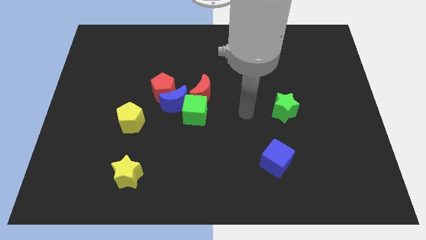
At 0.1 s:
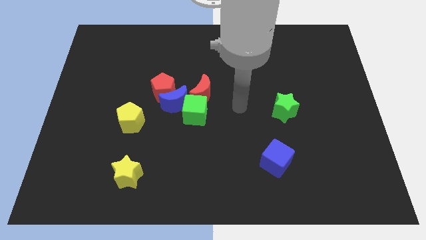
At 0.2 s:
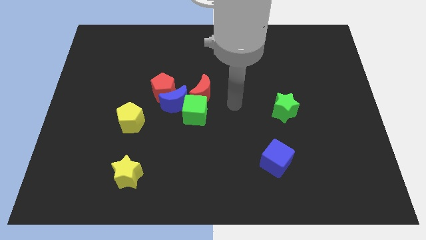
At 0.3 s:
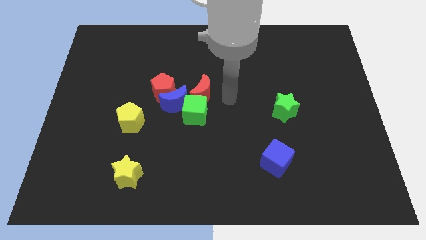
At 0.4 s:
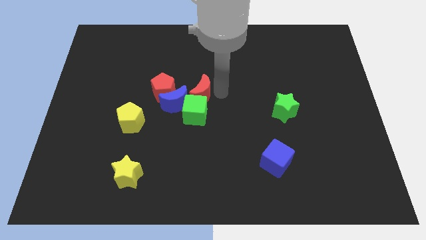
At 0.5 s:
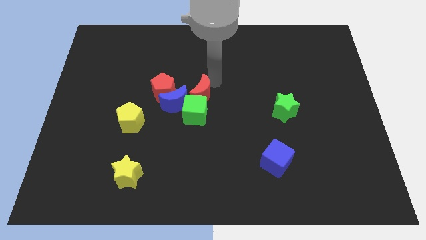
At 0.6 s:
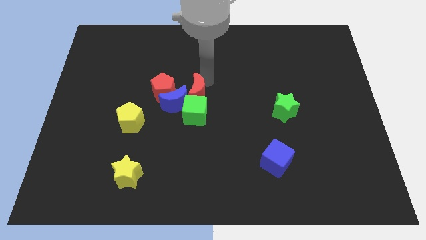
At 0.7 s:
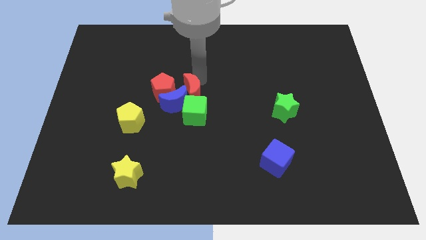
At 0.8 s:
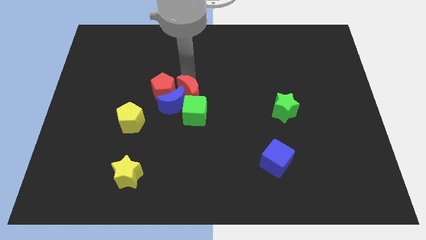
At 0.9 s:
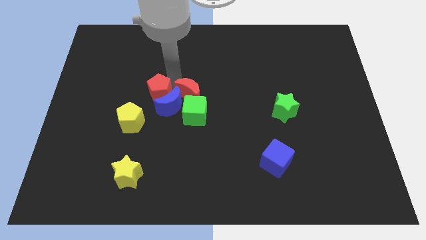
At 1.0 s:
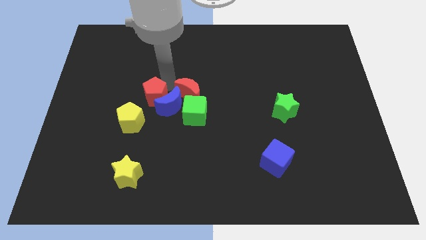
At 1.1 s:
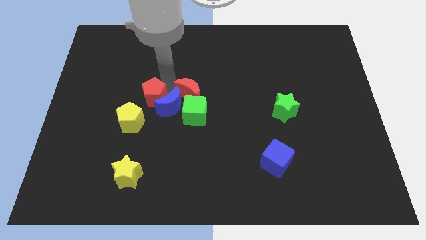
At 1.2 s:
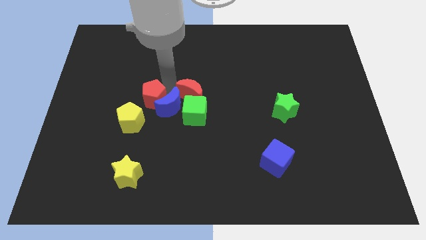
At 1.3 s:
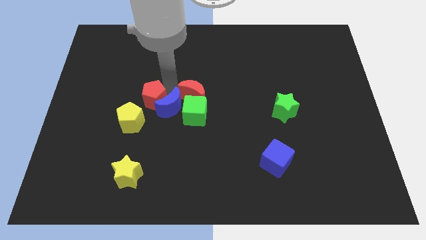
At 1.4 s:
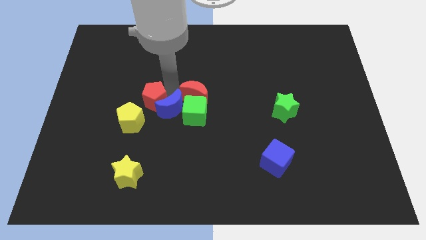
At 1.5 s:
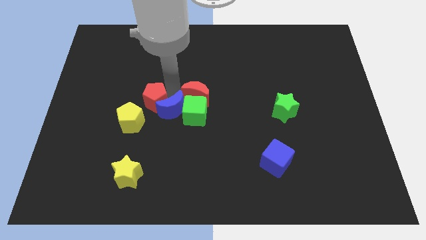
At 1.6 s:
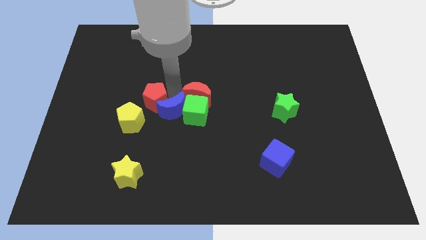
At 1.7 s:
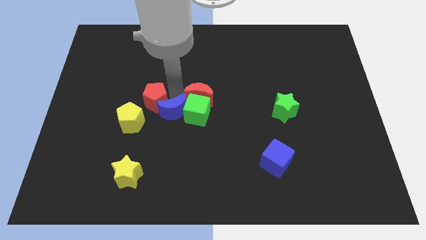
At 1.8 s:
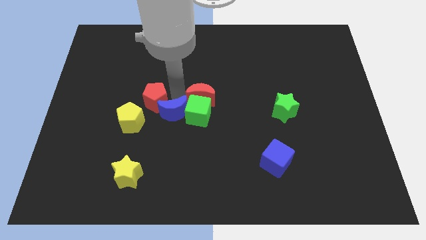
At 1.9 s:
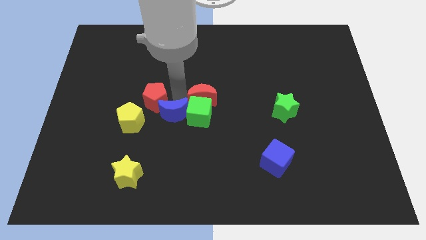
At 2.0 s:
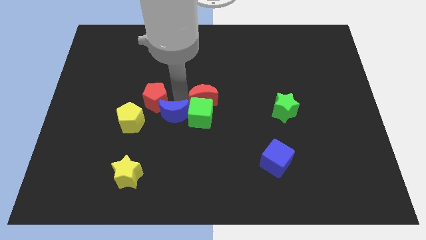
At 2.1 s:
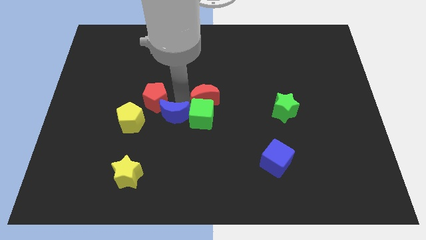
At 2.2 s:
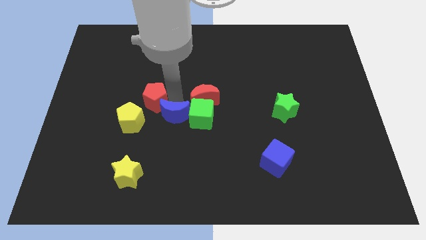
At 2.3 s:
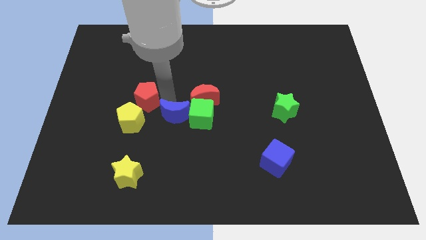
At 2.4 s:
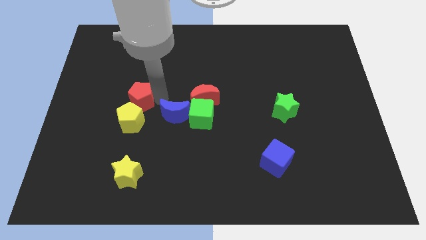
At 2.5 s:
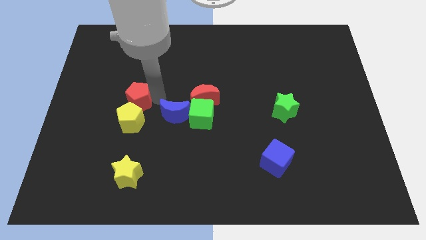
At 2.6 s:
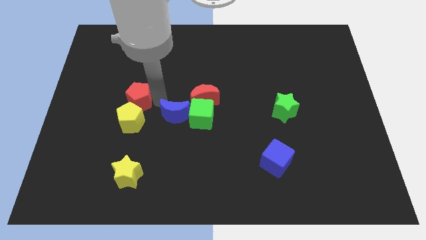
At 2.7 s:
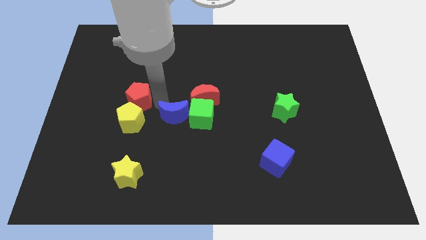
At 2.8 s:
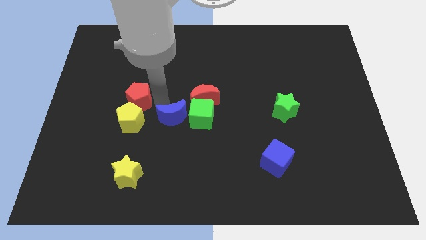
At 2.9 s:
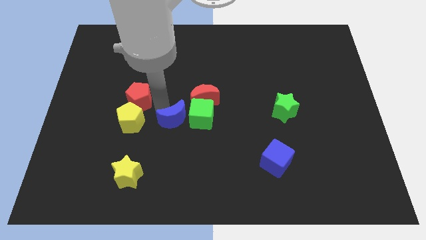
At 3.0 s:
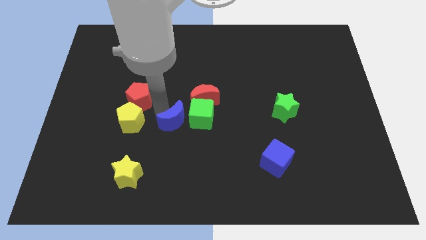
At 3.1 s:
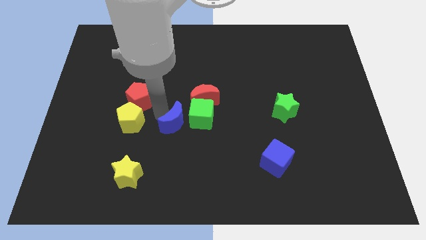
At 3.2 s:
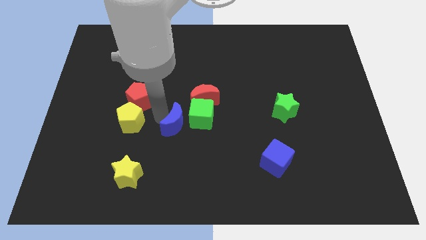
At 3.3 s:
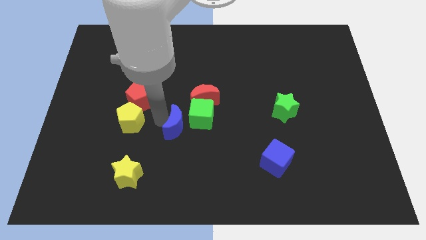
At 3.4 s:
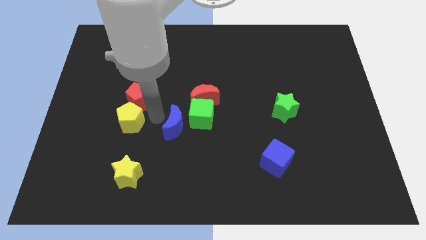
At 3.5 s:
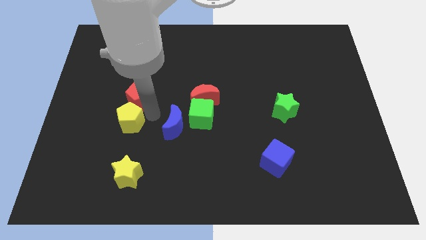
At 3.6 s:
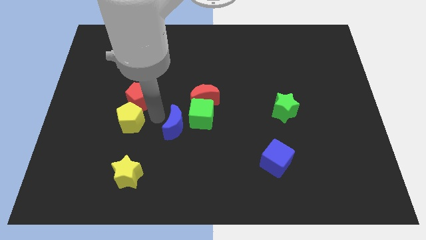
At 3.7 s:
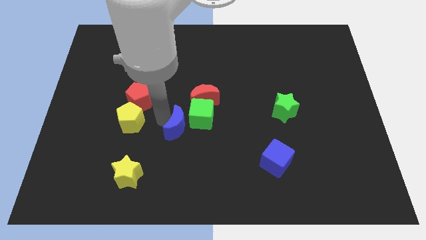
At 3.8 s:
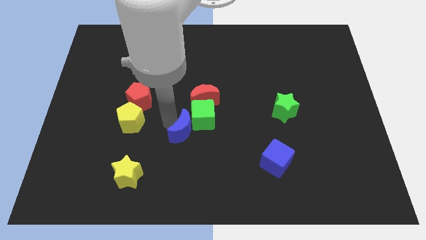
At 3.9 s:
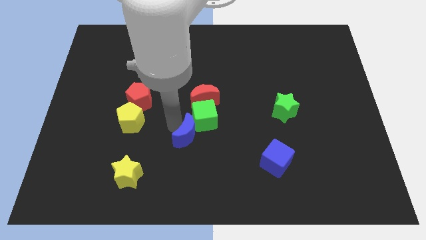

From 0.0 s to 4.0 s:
push the blue moon a little down and then to the right

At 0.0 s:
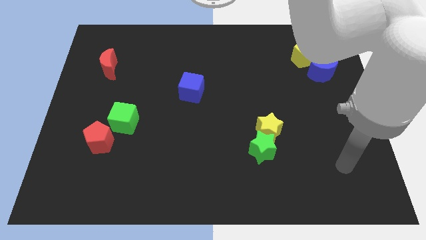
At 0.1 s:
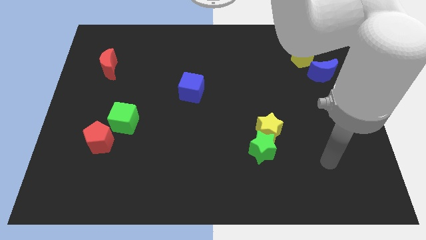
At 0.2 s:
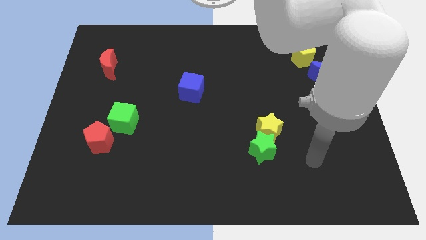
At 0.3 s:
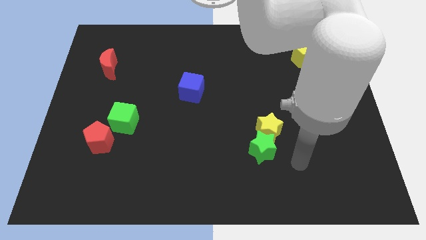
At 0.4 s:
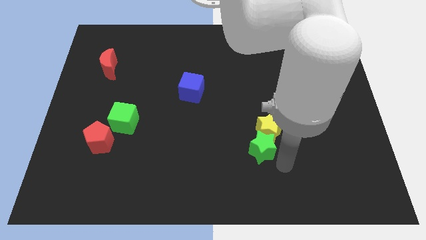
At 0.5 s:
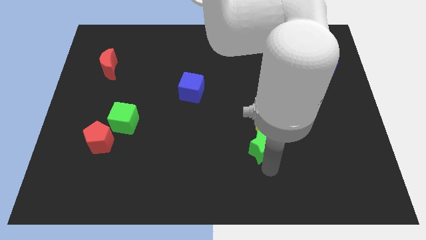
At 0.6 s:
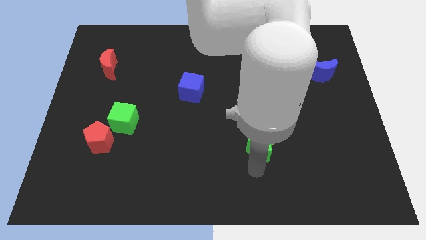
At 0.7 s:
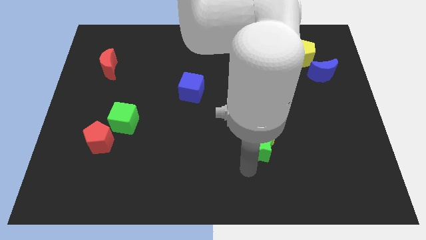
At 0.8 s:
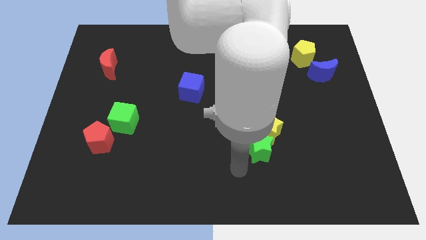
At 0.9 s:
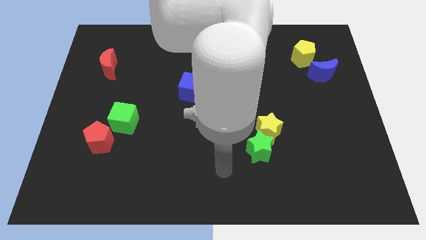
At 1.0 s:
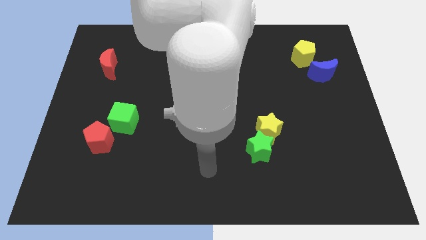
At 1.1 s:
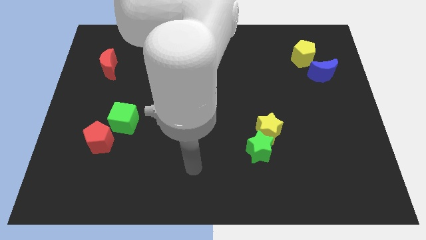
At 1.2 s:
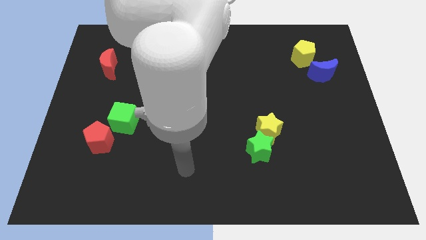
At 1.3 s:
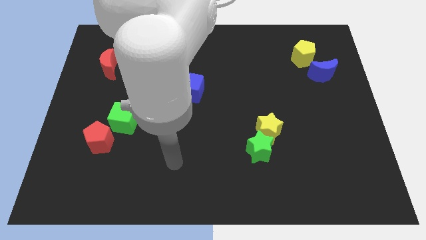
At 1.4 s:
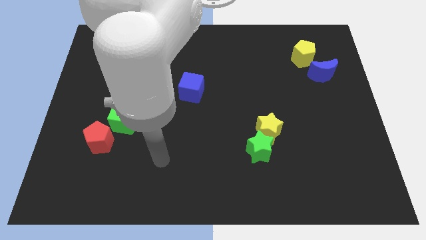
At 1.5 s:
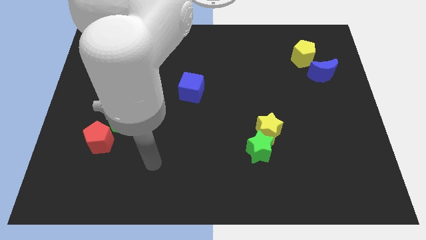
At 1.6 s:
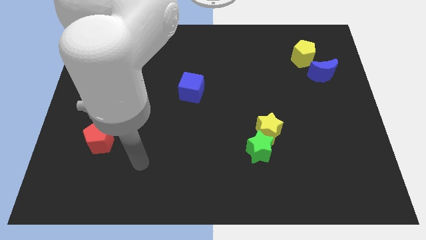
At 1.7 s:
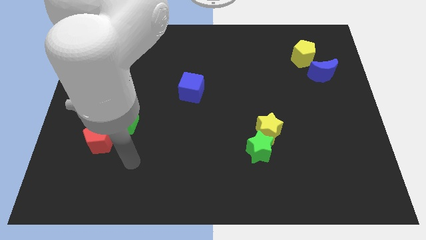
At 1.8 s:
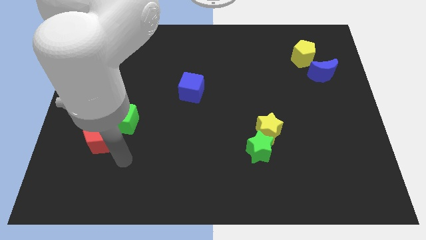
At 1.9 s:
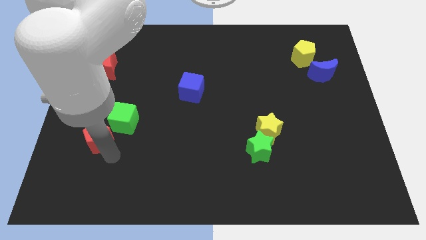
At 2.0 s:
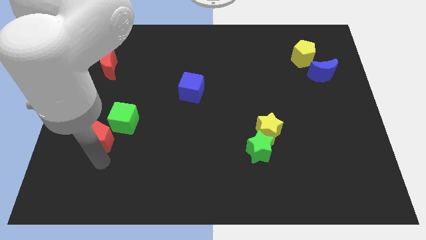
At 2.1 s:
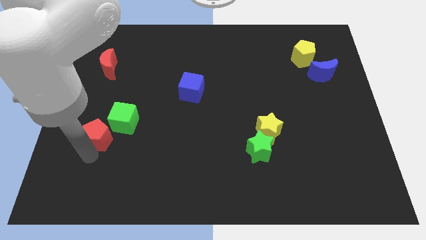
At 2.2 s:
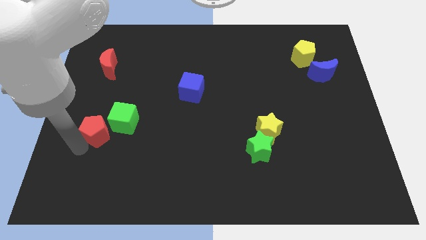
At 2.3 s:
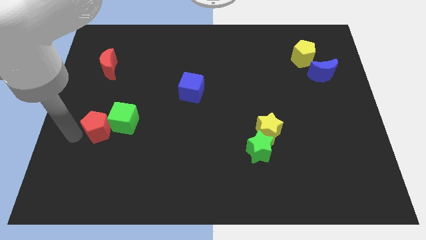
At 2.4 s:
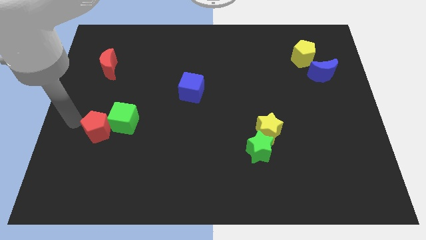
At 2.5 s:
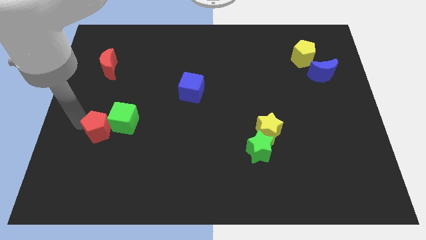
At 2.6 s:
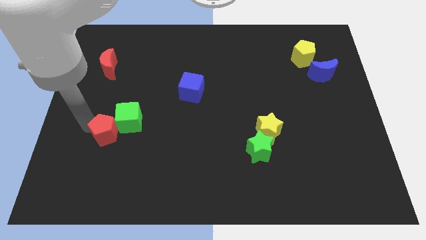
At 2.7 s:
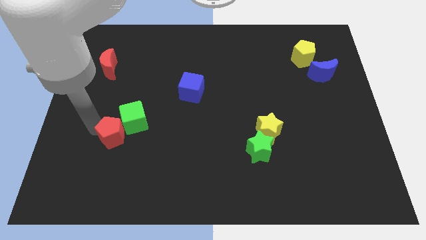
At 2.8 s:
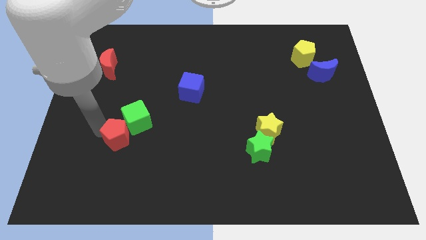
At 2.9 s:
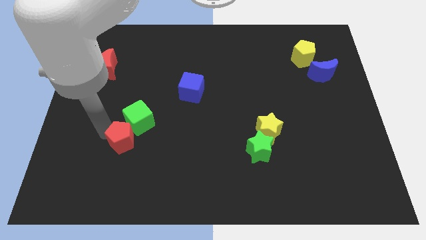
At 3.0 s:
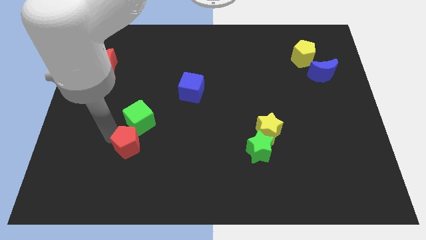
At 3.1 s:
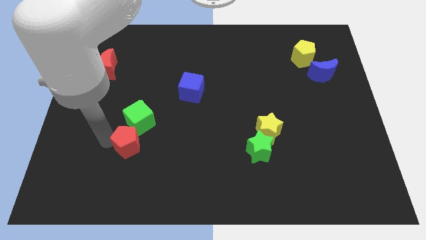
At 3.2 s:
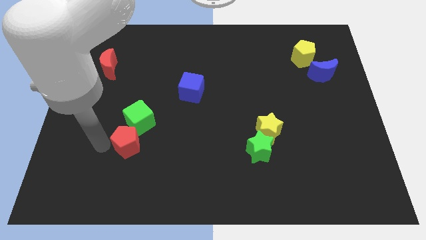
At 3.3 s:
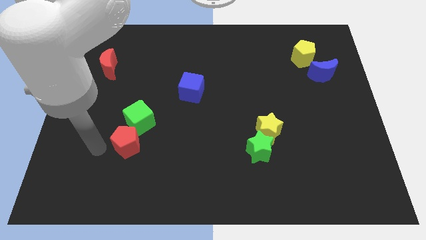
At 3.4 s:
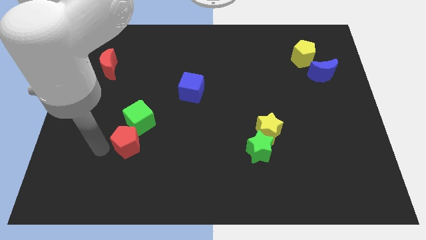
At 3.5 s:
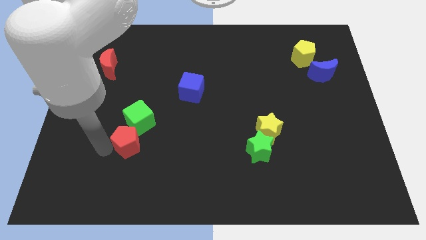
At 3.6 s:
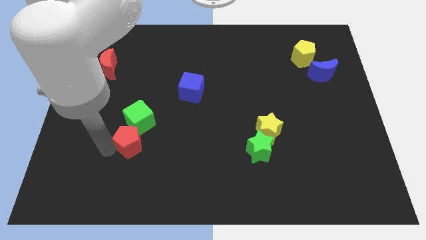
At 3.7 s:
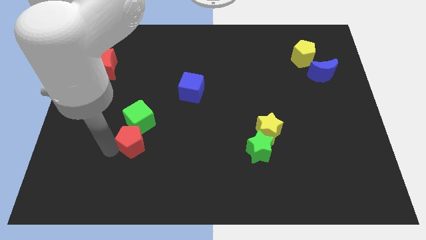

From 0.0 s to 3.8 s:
push the red pentagon a little to the right
